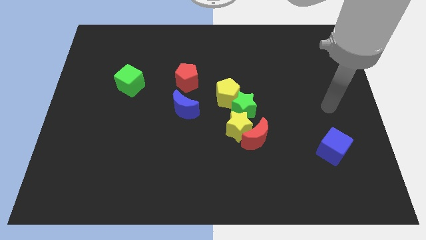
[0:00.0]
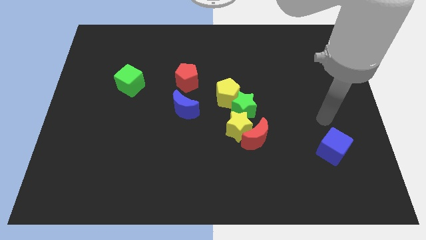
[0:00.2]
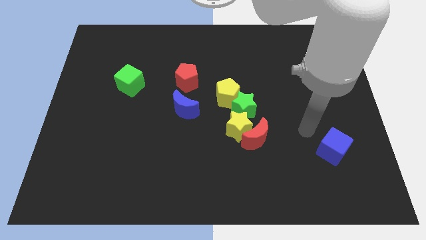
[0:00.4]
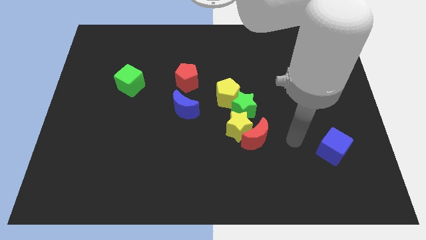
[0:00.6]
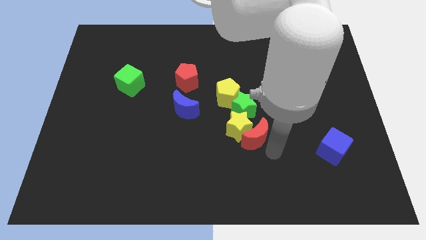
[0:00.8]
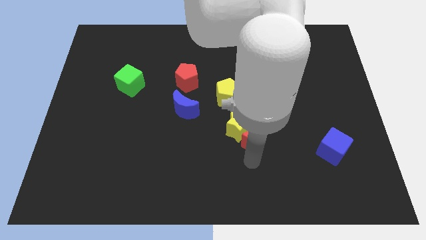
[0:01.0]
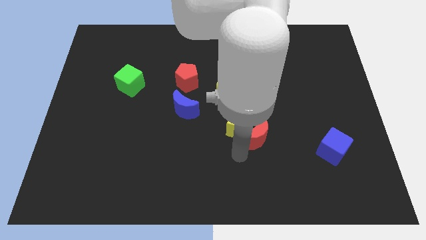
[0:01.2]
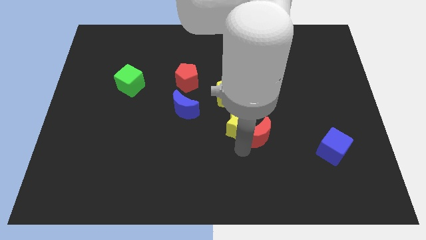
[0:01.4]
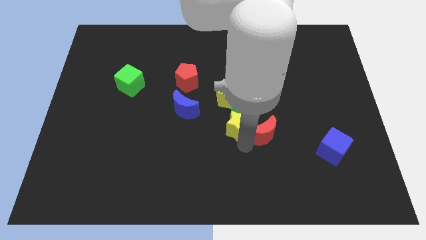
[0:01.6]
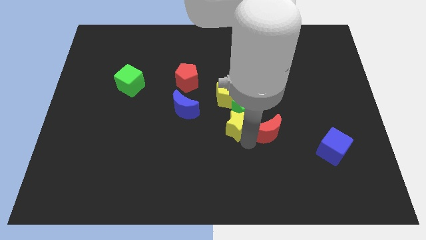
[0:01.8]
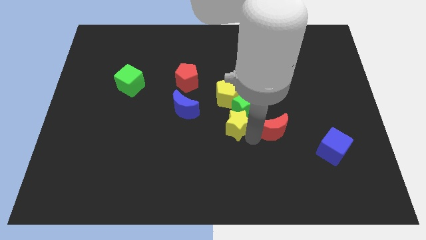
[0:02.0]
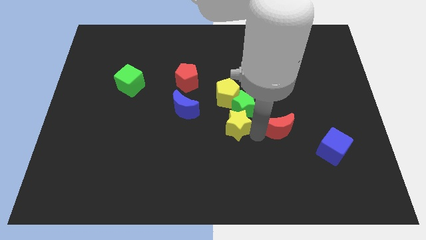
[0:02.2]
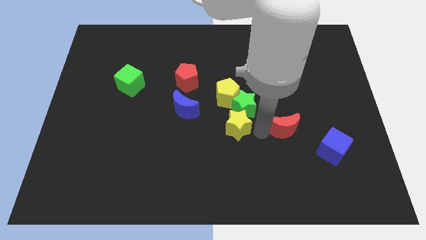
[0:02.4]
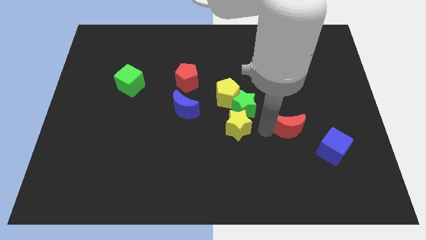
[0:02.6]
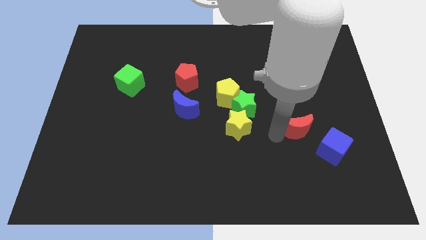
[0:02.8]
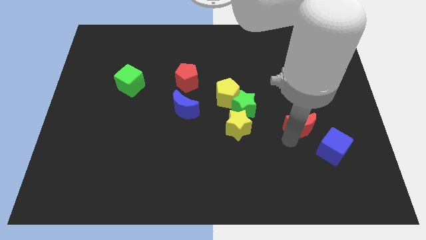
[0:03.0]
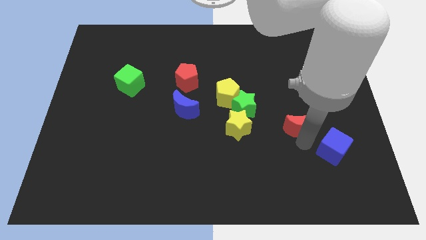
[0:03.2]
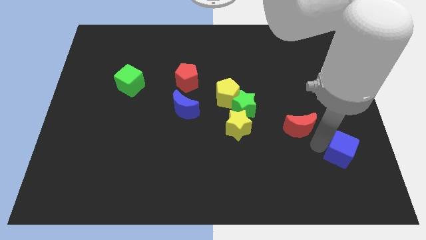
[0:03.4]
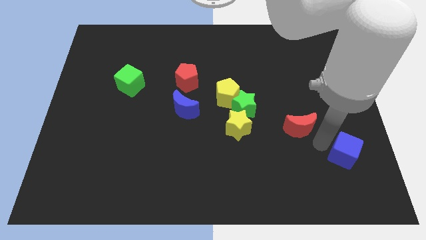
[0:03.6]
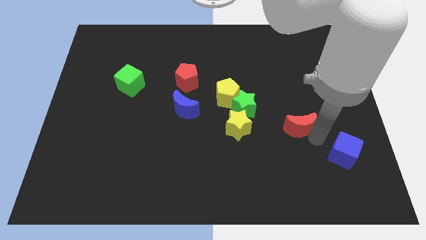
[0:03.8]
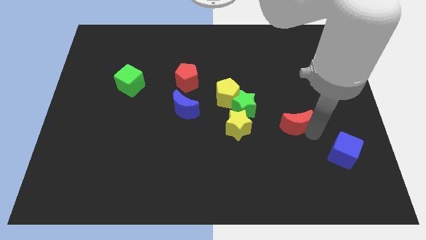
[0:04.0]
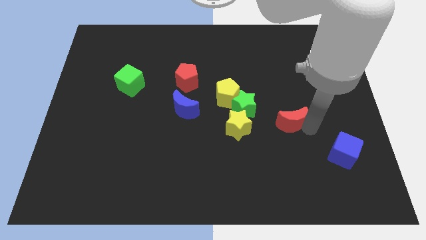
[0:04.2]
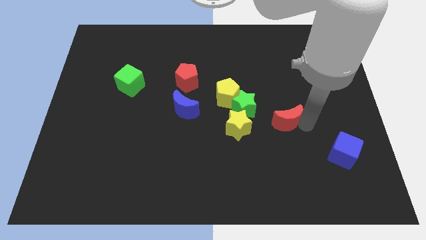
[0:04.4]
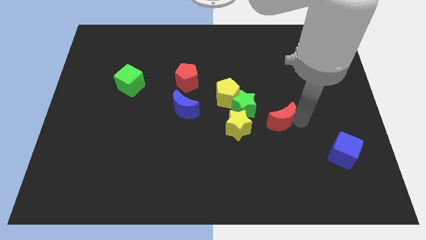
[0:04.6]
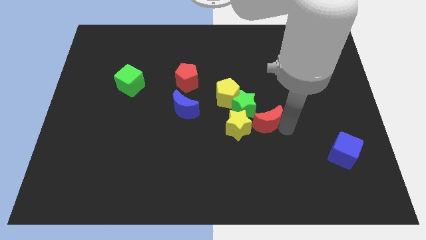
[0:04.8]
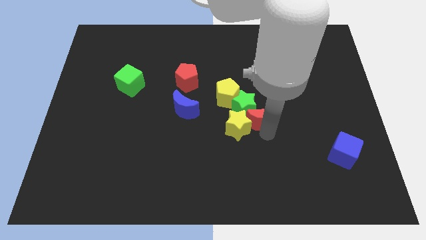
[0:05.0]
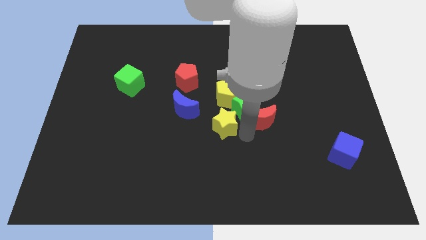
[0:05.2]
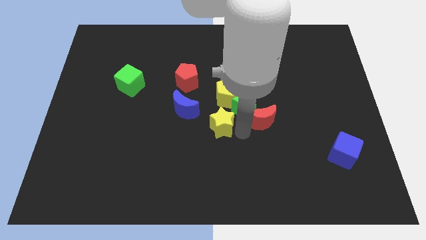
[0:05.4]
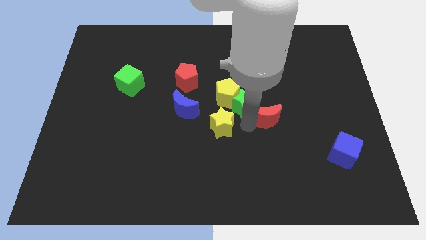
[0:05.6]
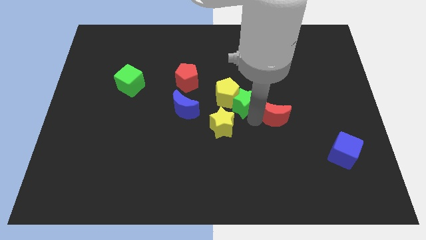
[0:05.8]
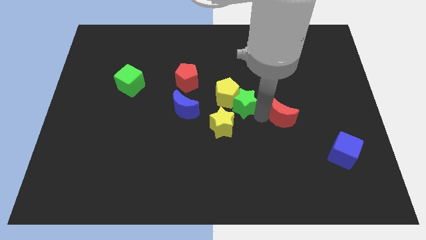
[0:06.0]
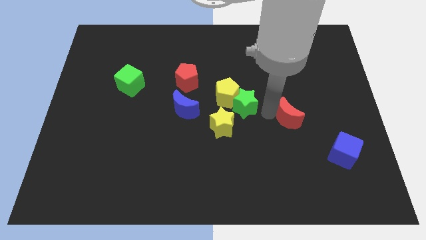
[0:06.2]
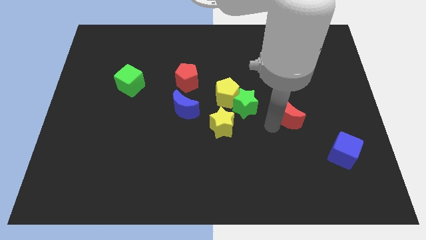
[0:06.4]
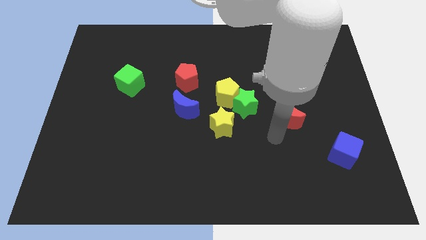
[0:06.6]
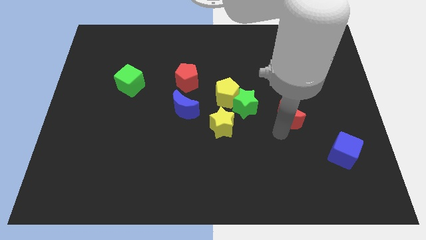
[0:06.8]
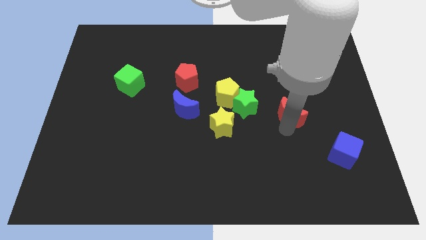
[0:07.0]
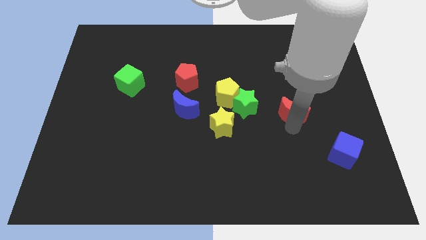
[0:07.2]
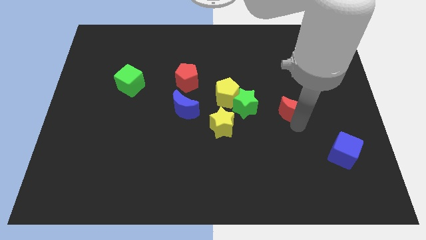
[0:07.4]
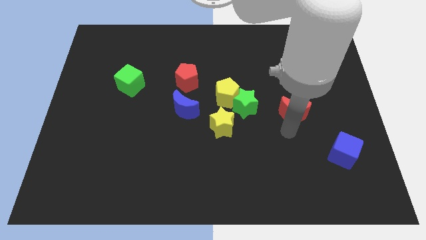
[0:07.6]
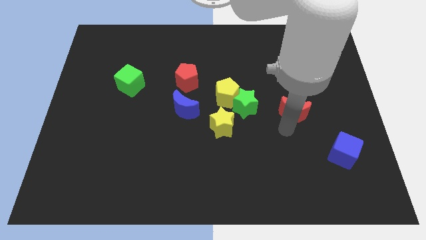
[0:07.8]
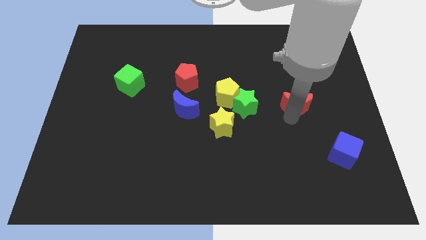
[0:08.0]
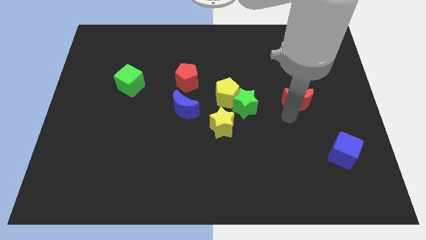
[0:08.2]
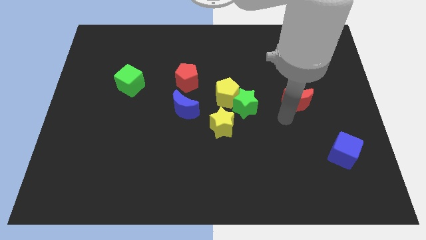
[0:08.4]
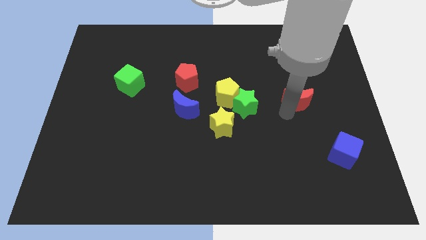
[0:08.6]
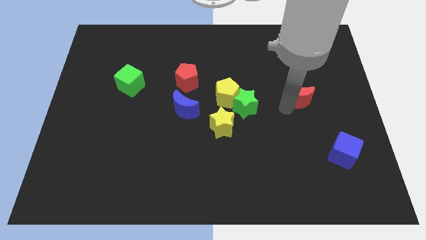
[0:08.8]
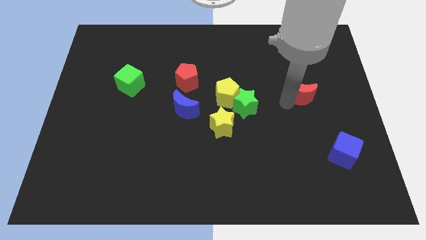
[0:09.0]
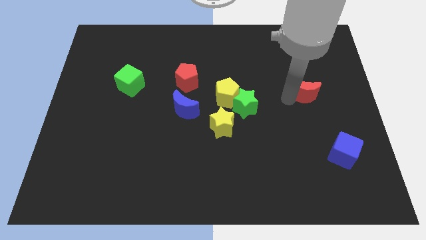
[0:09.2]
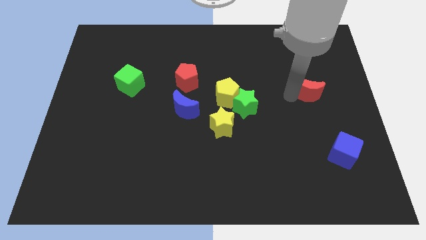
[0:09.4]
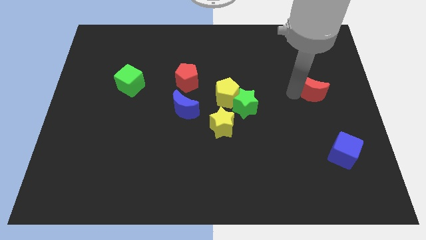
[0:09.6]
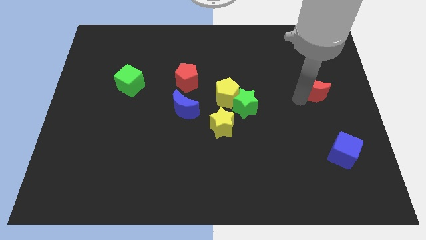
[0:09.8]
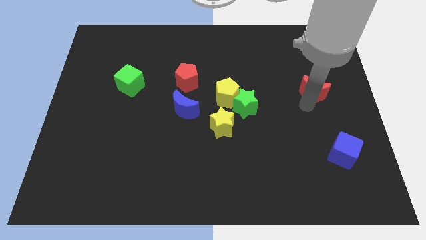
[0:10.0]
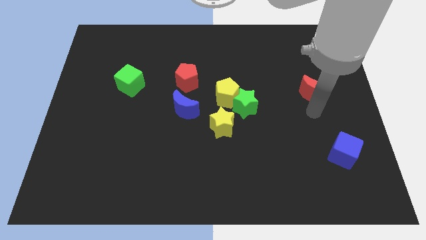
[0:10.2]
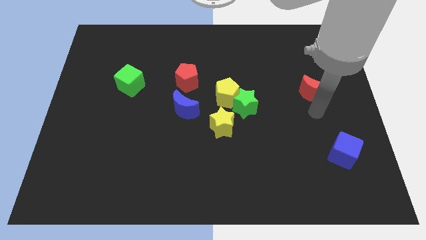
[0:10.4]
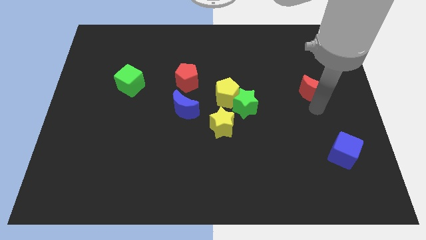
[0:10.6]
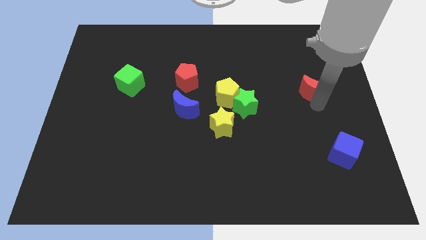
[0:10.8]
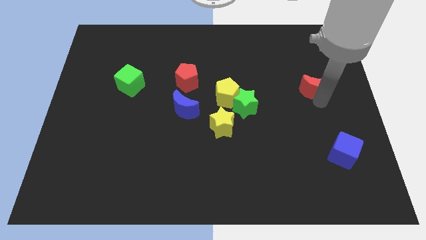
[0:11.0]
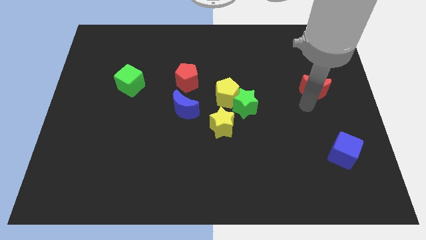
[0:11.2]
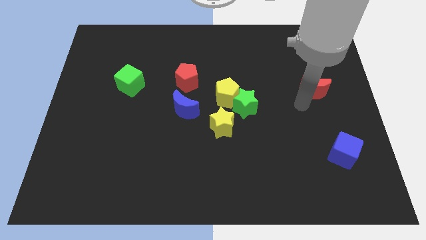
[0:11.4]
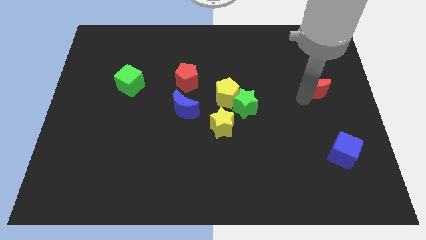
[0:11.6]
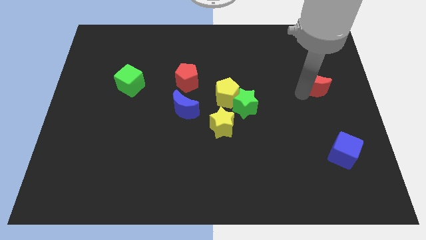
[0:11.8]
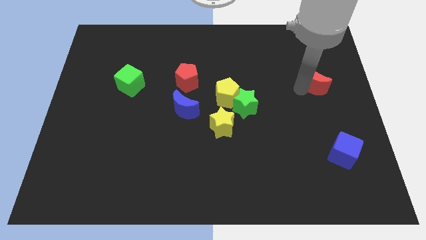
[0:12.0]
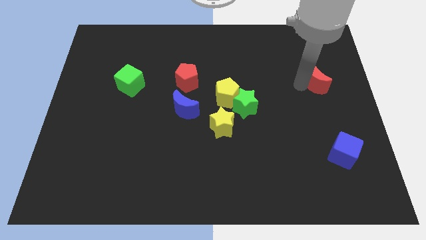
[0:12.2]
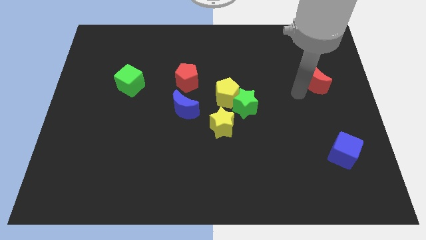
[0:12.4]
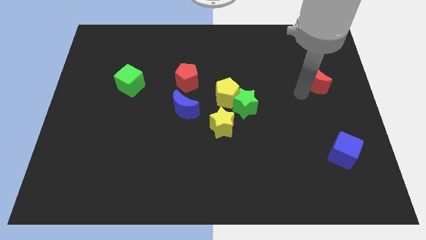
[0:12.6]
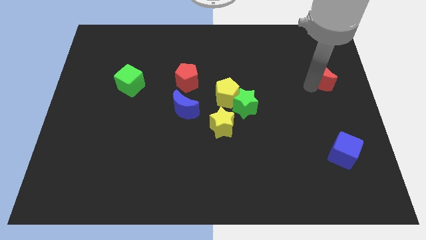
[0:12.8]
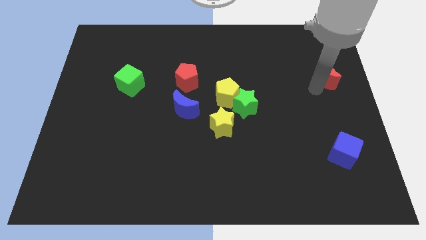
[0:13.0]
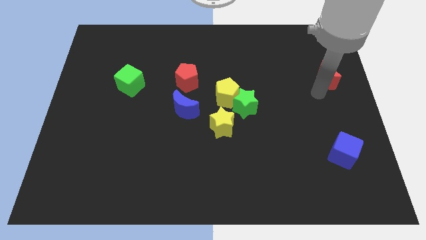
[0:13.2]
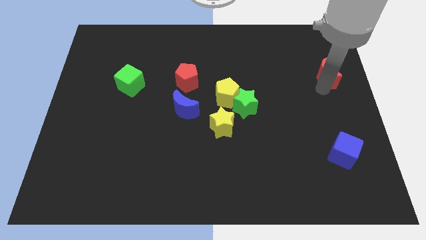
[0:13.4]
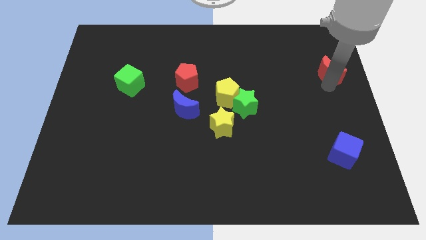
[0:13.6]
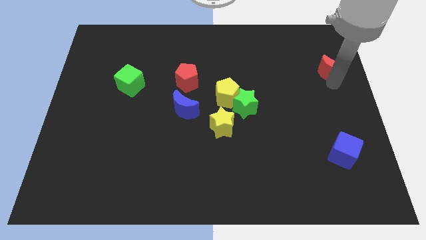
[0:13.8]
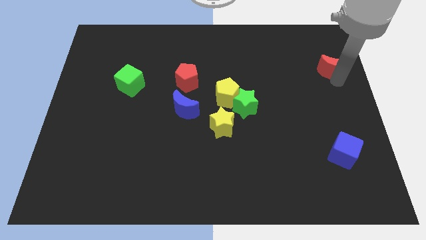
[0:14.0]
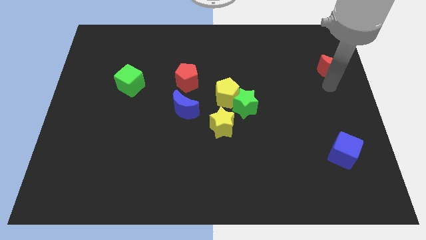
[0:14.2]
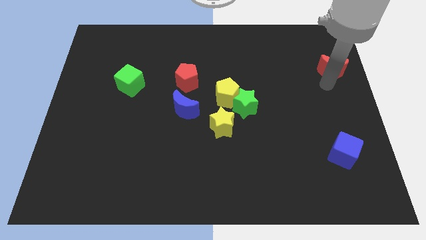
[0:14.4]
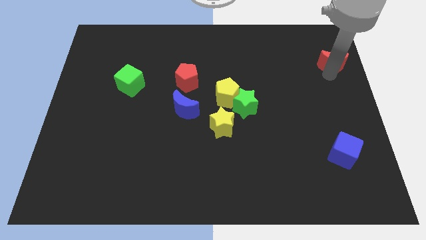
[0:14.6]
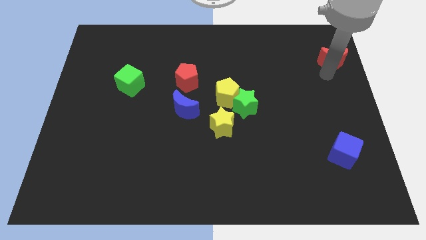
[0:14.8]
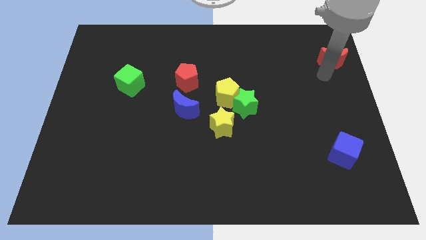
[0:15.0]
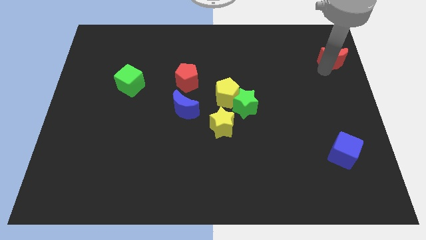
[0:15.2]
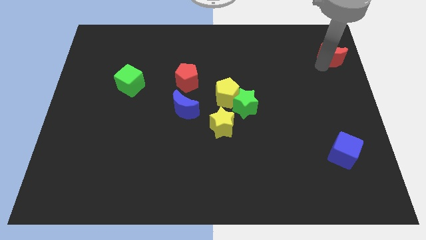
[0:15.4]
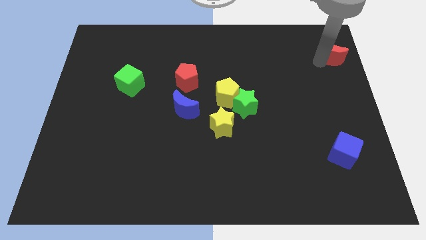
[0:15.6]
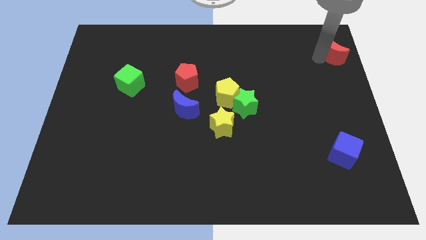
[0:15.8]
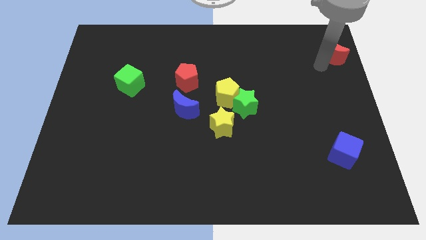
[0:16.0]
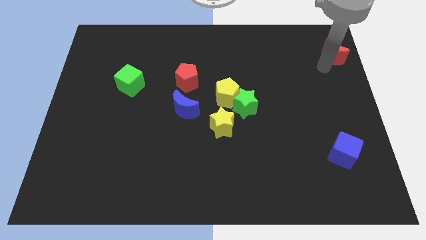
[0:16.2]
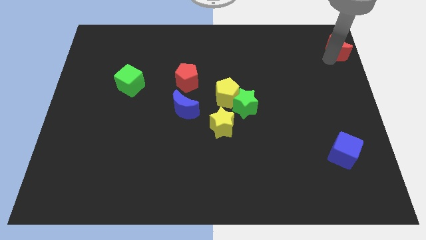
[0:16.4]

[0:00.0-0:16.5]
put the red moon to the top right
